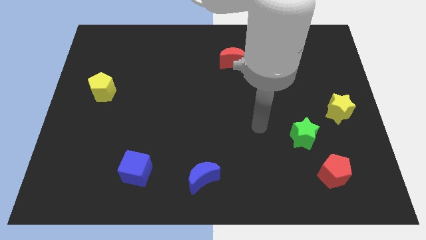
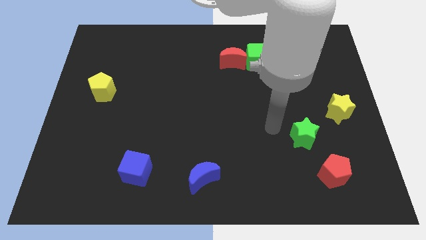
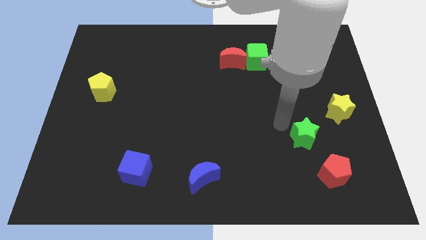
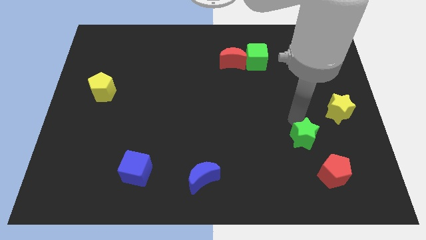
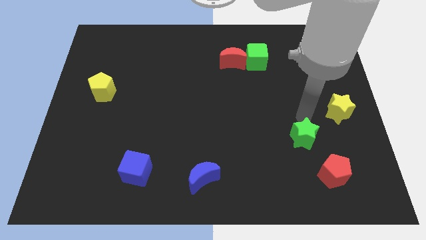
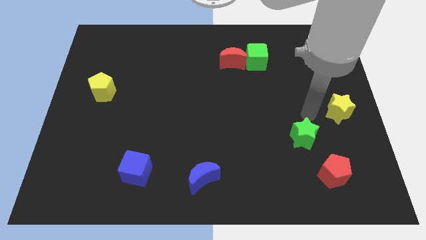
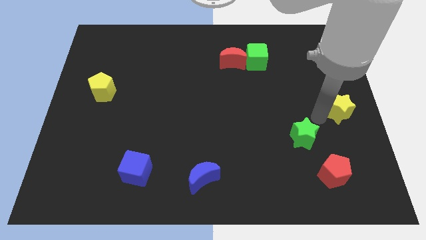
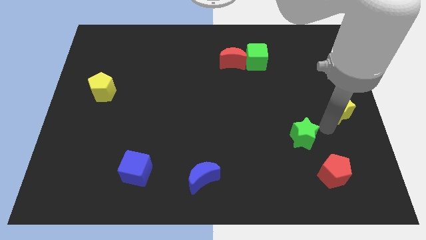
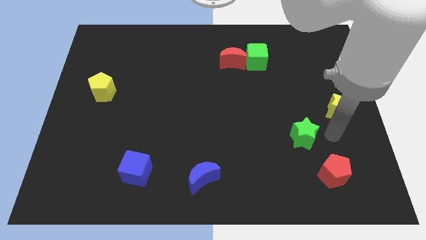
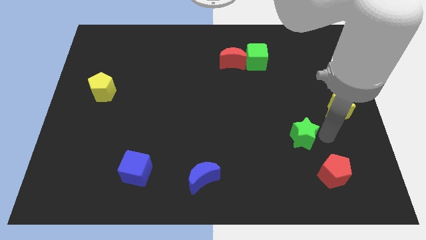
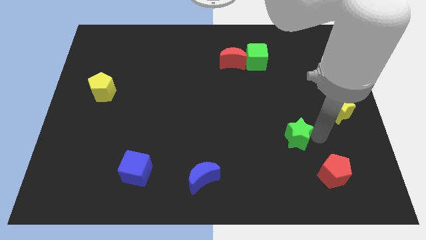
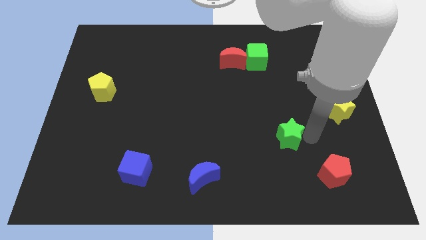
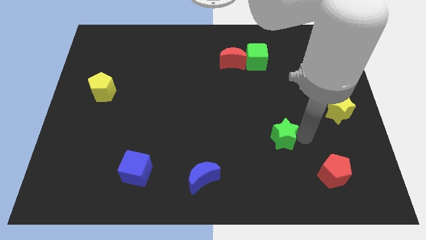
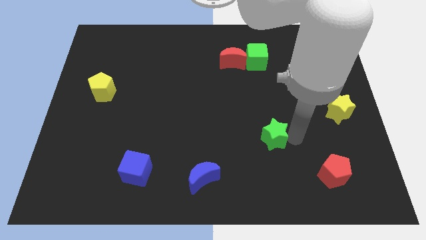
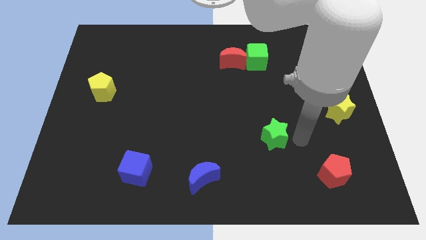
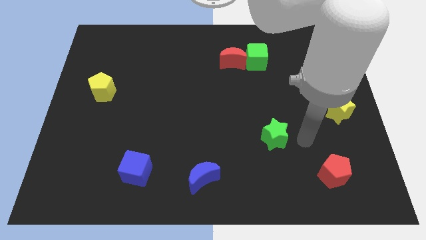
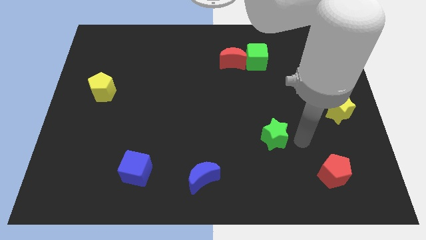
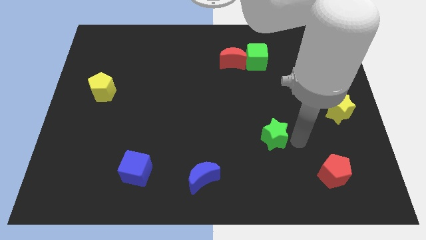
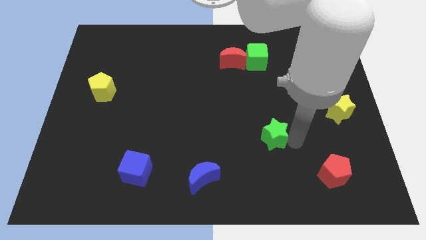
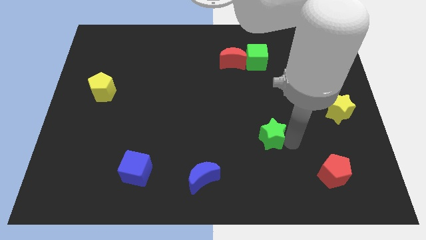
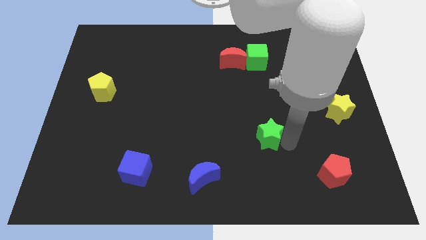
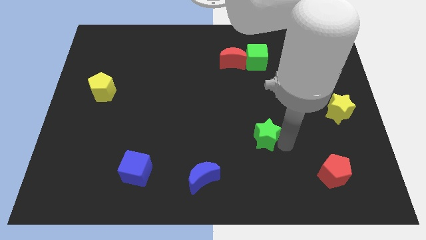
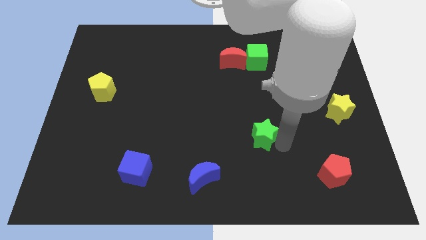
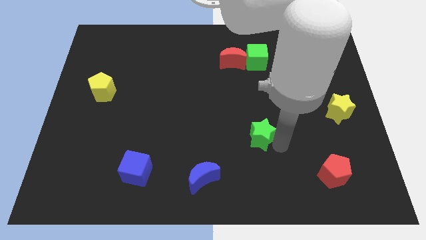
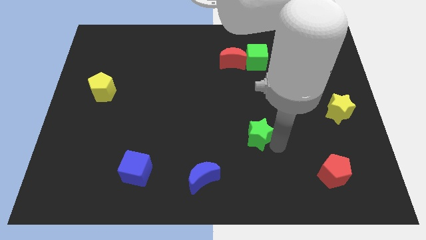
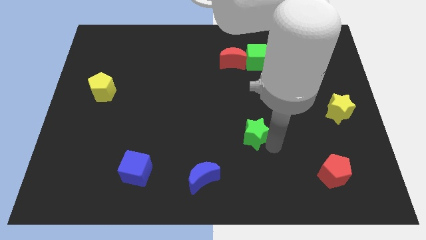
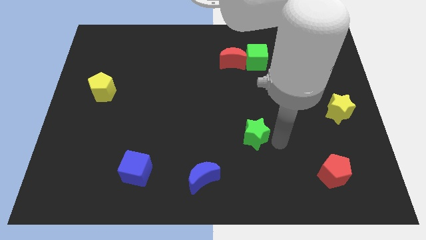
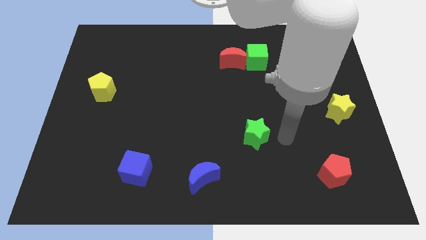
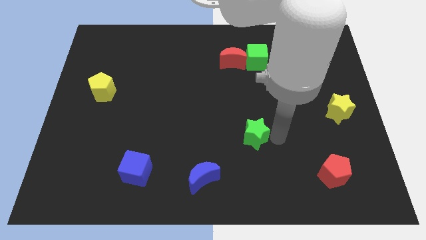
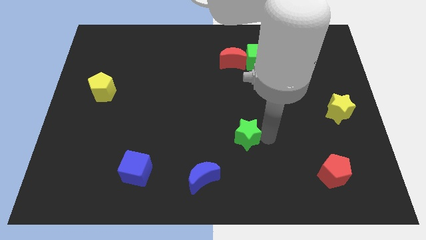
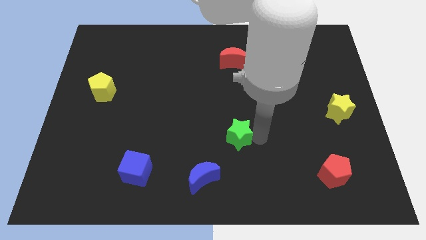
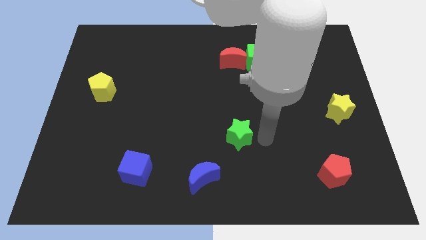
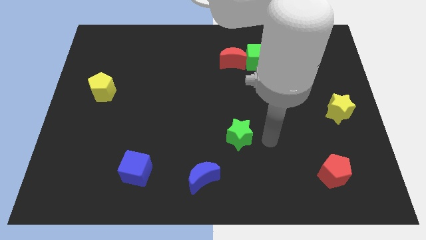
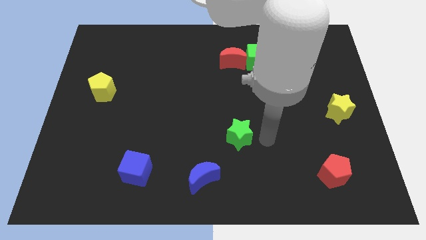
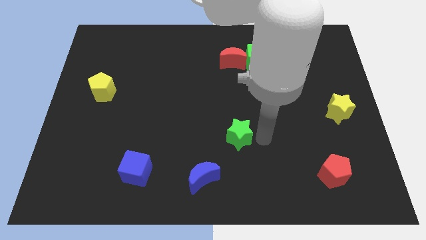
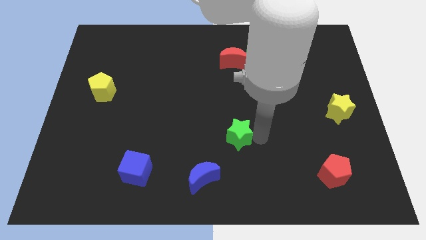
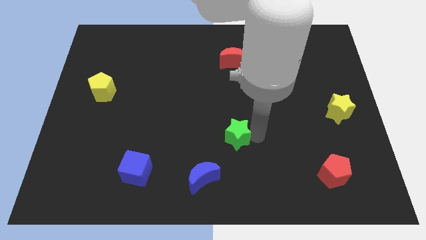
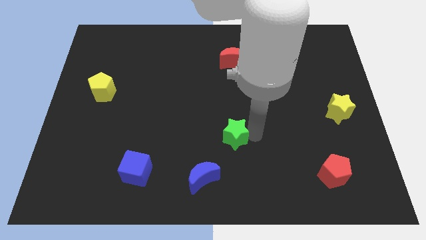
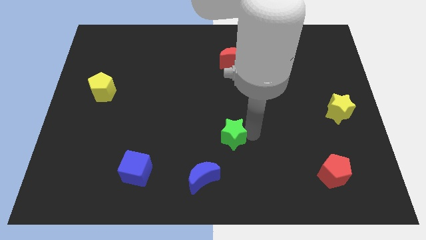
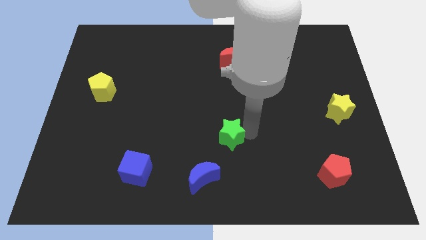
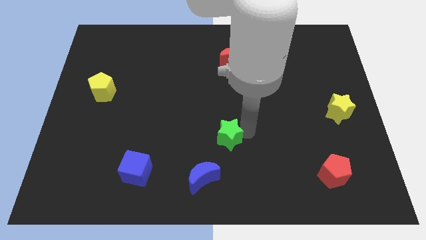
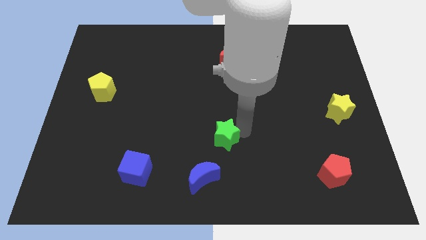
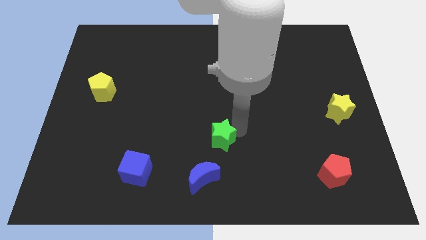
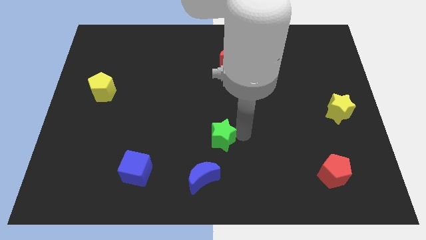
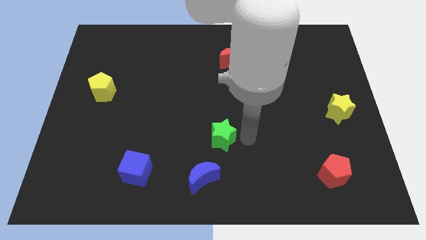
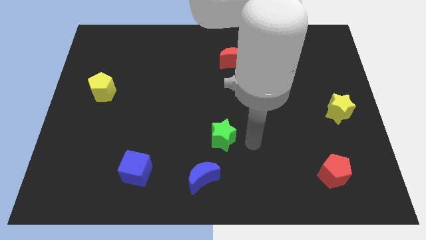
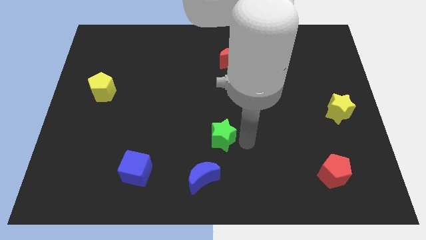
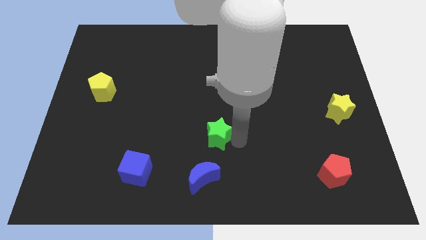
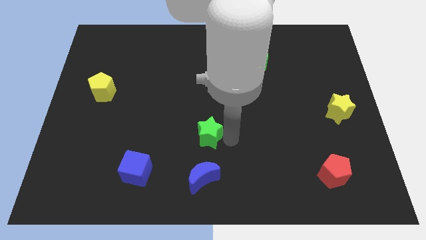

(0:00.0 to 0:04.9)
slide the green star to the left

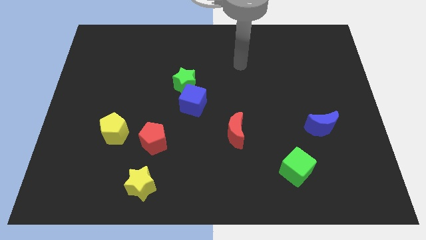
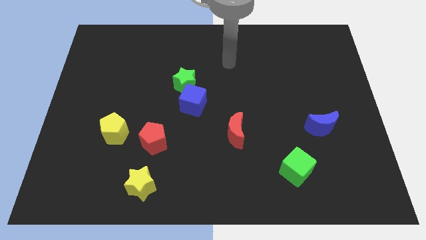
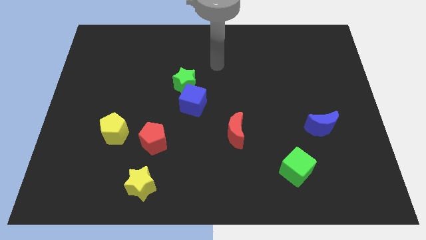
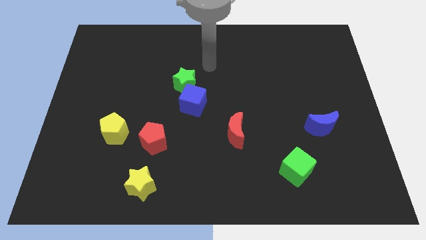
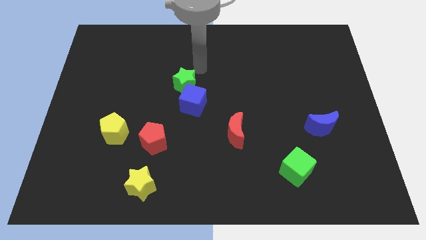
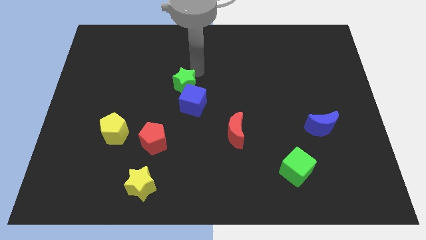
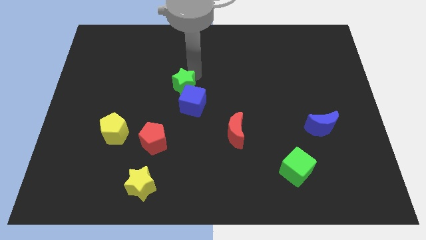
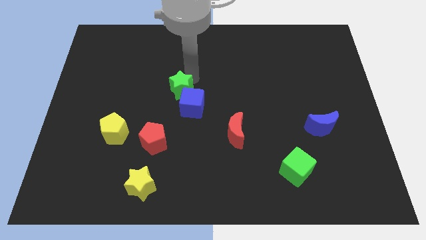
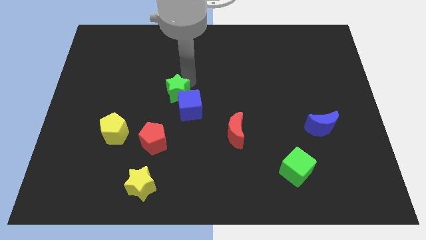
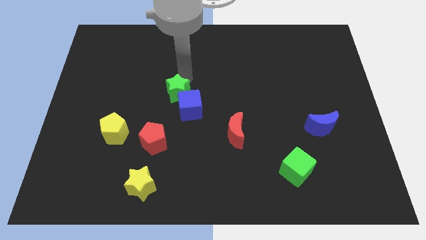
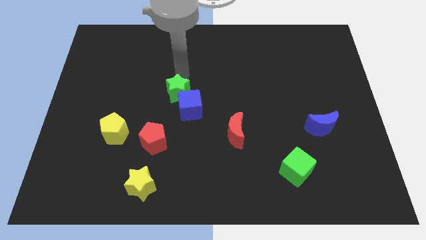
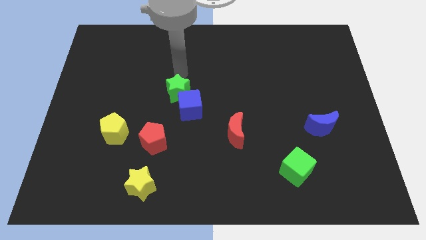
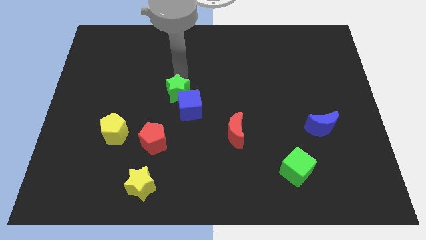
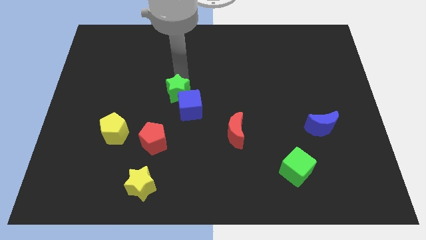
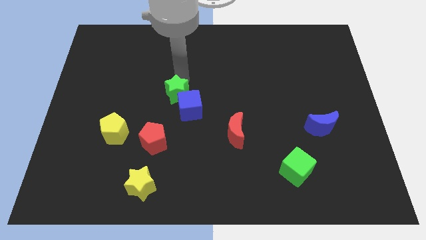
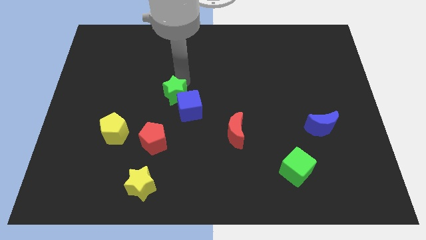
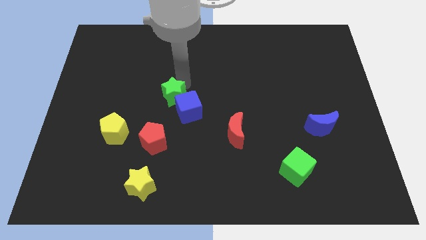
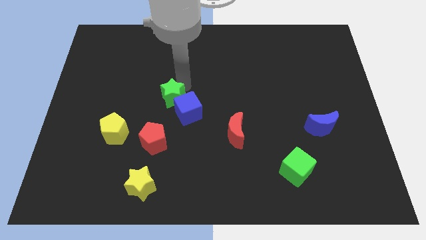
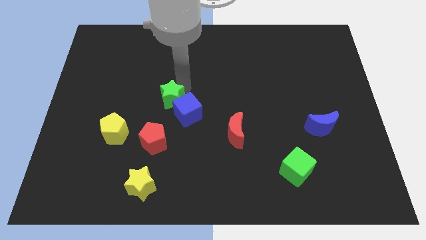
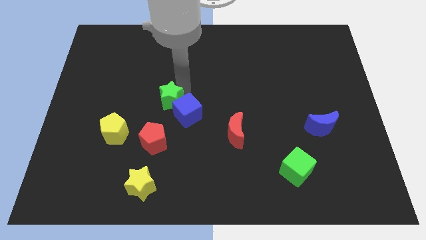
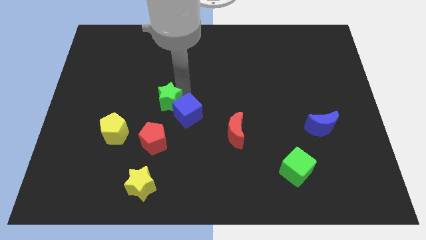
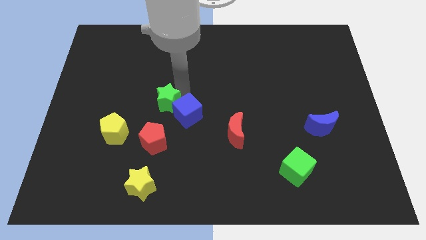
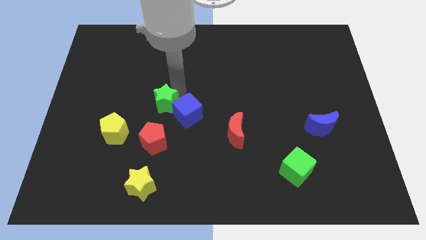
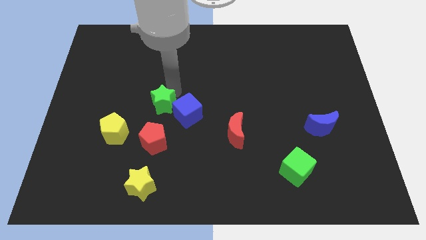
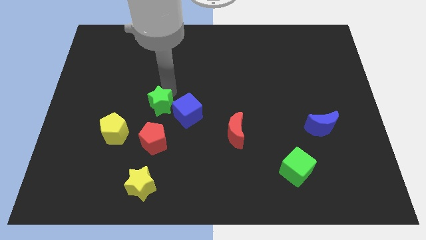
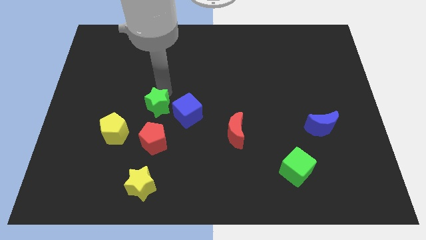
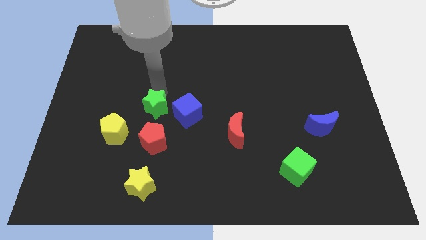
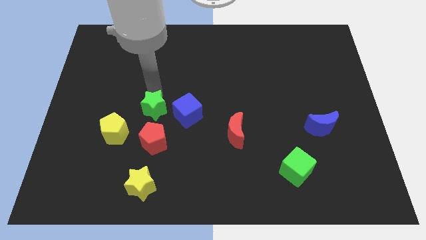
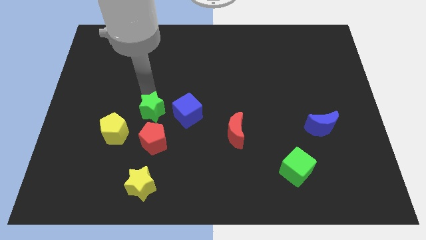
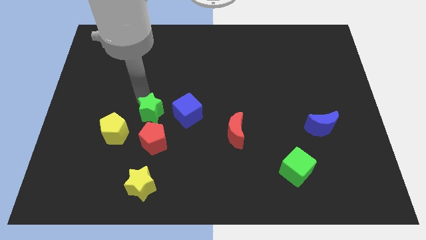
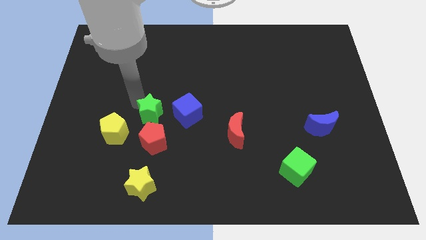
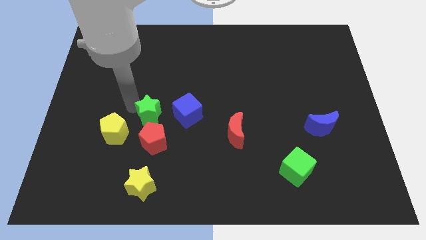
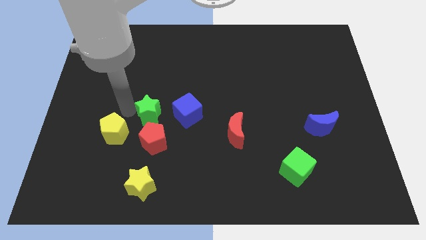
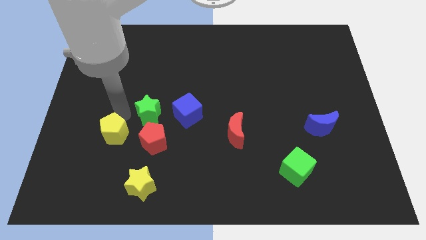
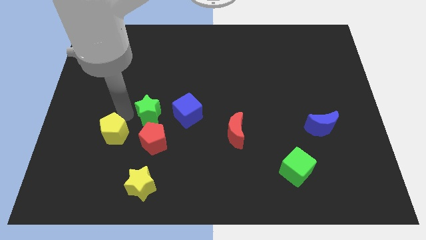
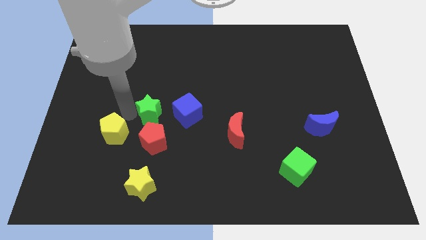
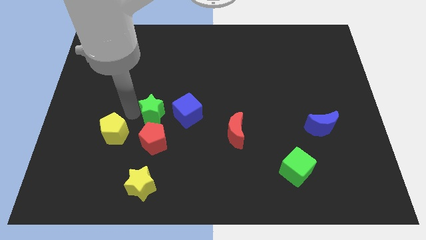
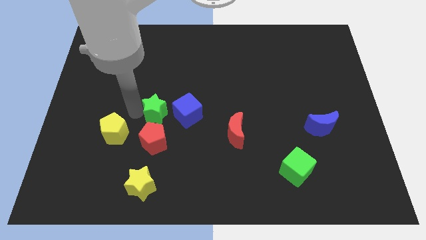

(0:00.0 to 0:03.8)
slightly push the green star down

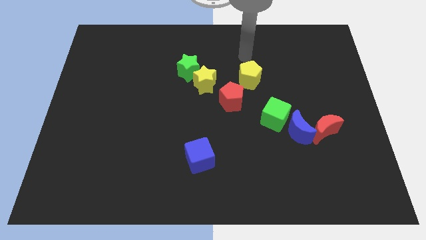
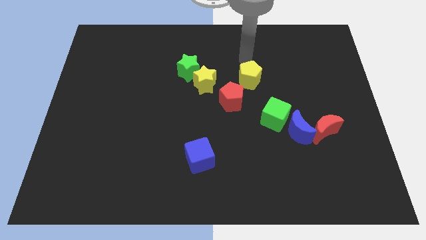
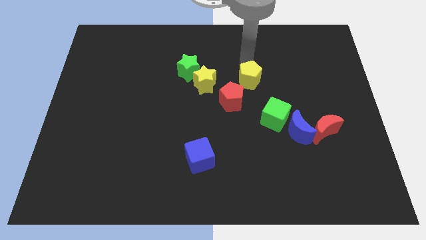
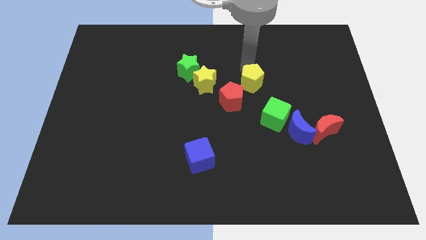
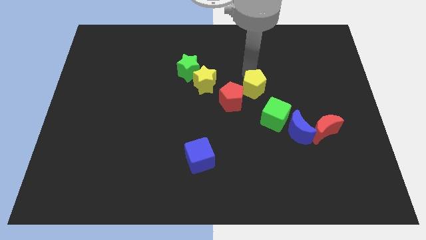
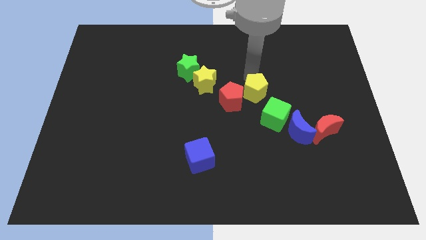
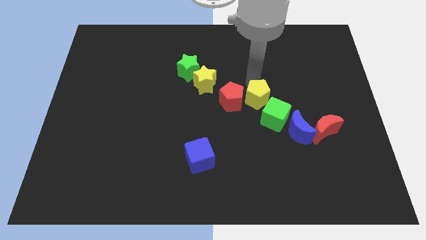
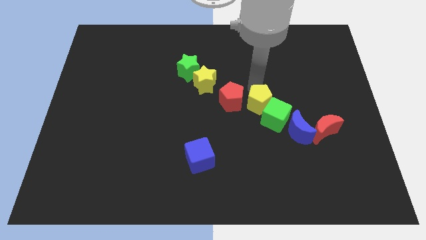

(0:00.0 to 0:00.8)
slide the yellow pentagon downwards slightly
